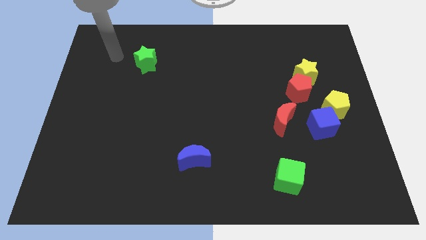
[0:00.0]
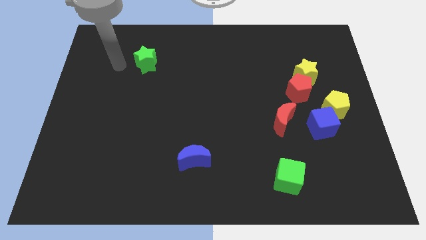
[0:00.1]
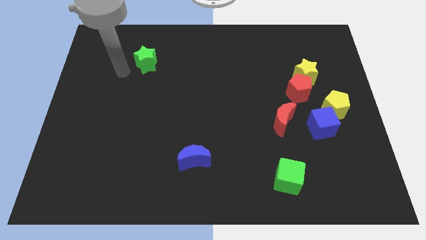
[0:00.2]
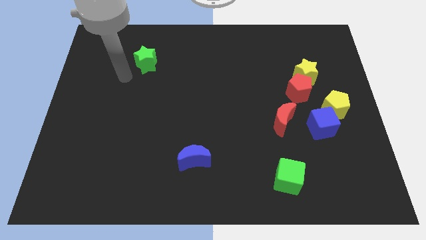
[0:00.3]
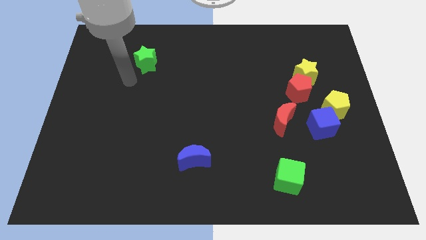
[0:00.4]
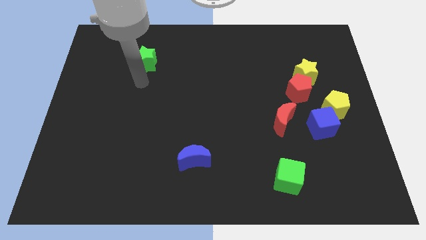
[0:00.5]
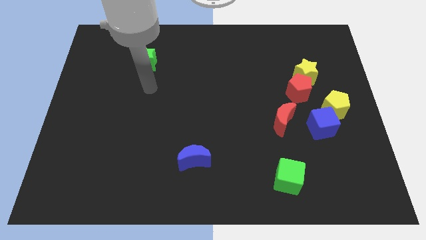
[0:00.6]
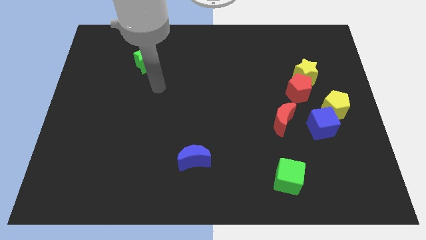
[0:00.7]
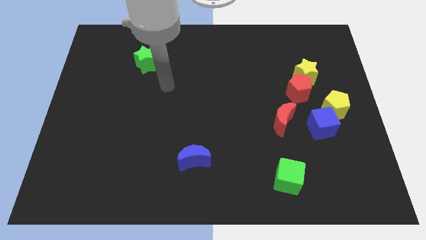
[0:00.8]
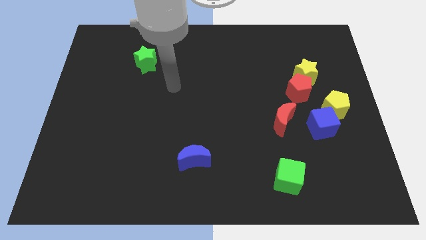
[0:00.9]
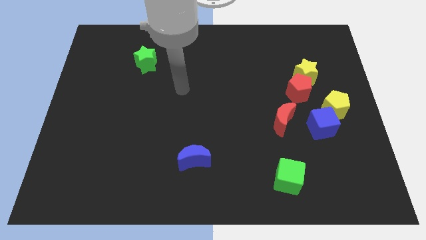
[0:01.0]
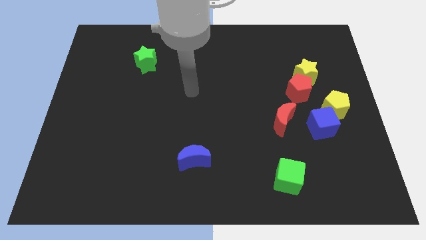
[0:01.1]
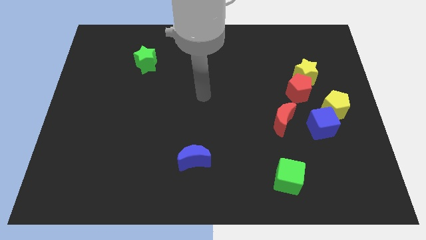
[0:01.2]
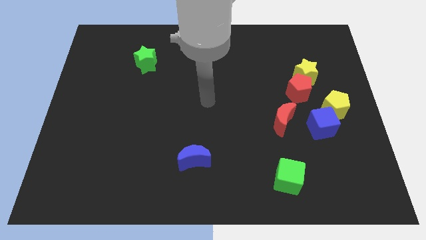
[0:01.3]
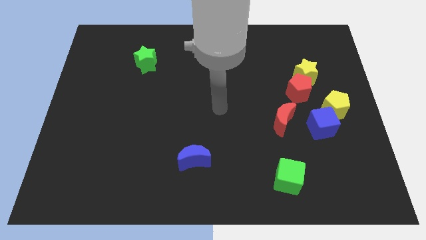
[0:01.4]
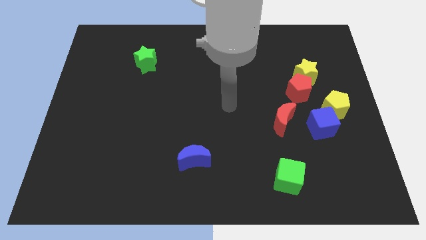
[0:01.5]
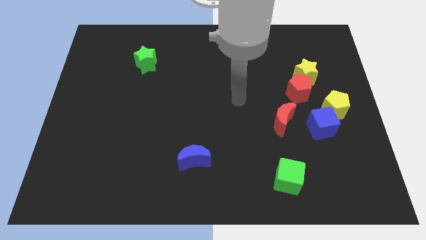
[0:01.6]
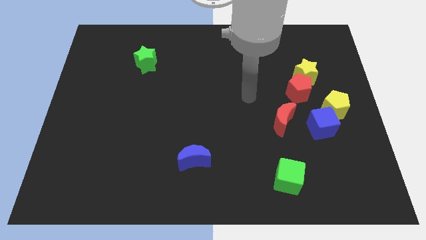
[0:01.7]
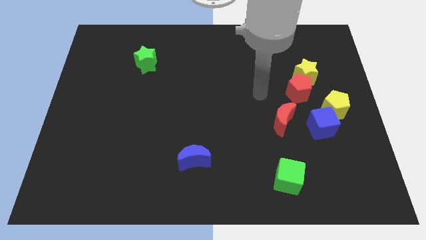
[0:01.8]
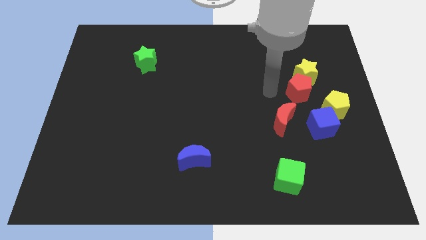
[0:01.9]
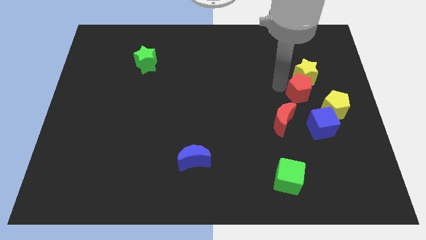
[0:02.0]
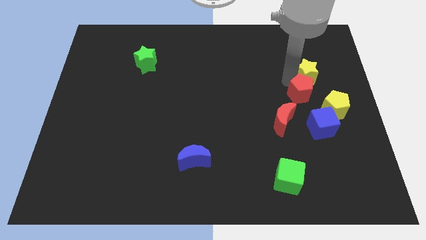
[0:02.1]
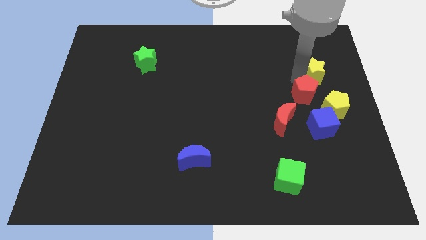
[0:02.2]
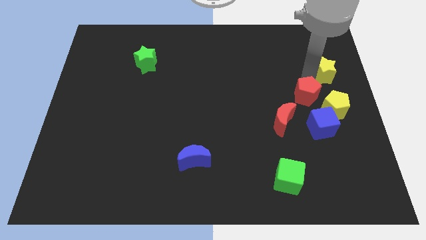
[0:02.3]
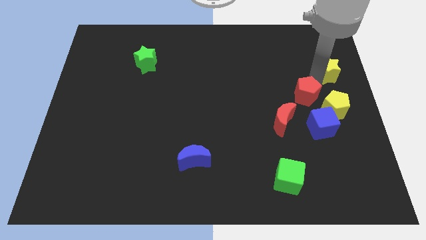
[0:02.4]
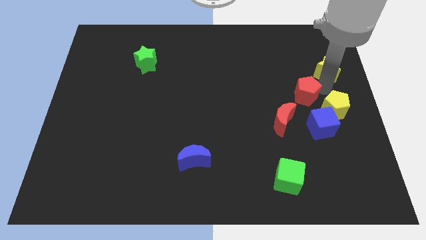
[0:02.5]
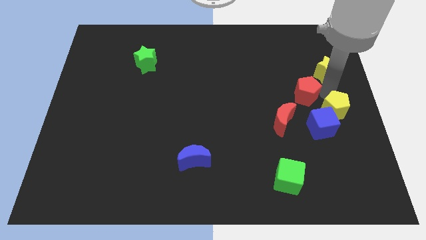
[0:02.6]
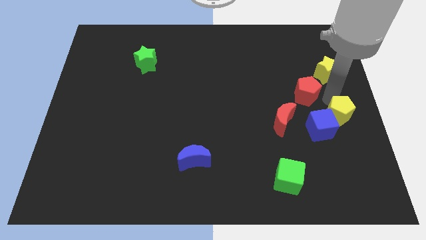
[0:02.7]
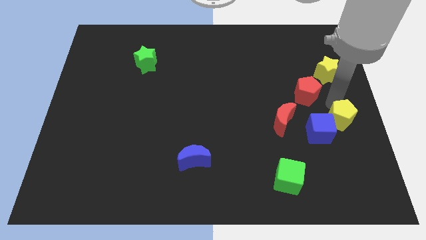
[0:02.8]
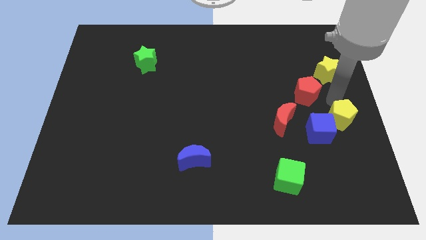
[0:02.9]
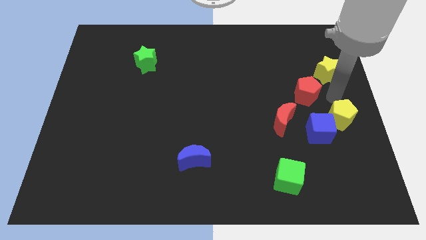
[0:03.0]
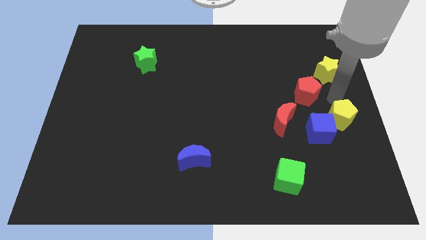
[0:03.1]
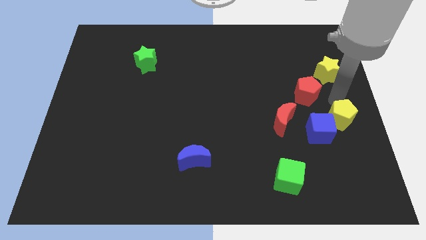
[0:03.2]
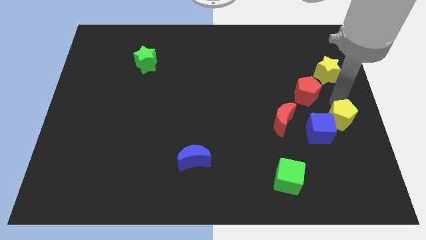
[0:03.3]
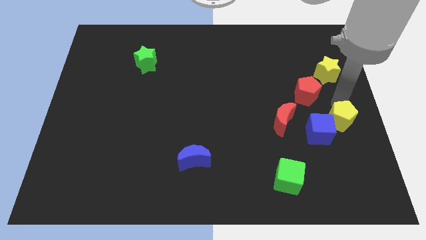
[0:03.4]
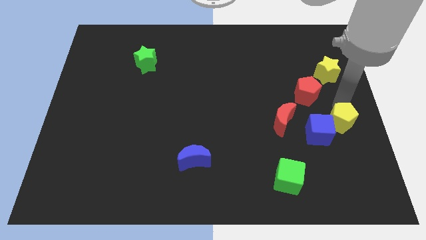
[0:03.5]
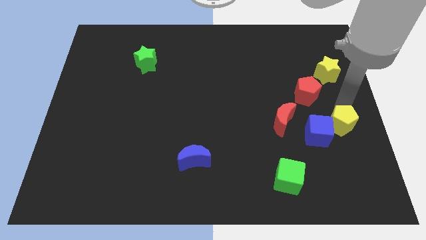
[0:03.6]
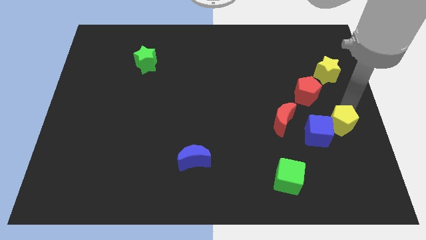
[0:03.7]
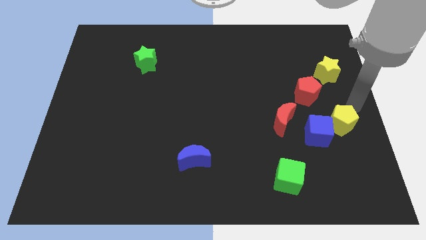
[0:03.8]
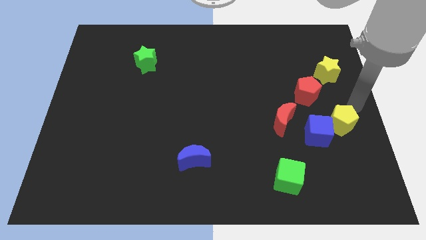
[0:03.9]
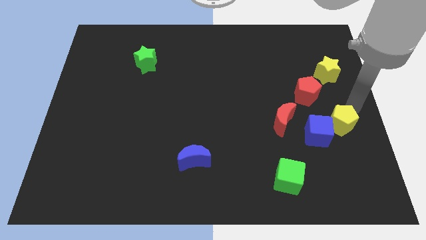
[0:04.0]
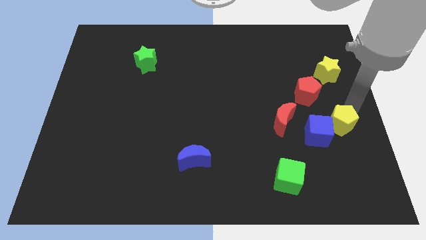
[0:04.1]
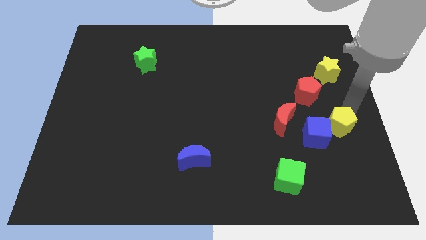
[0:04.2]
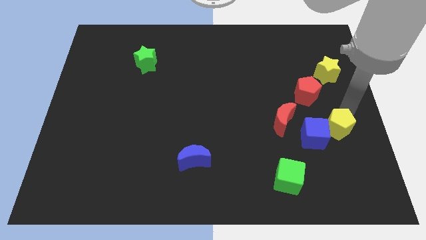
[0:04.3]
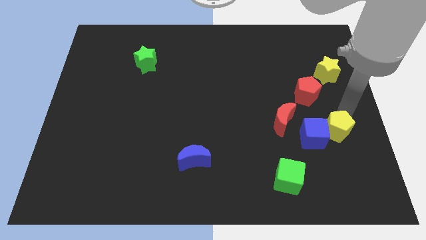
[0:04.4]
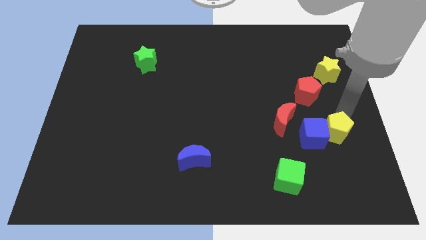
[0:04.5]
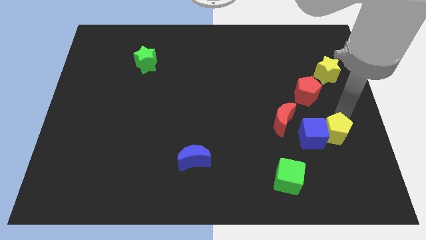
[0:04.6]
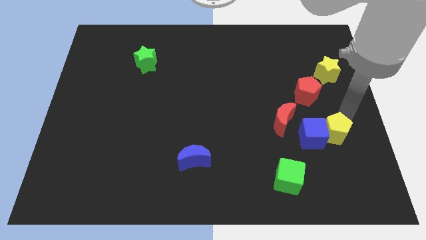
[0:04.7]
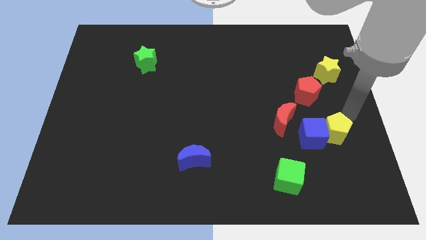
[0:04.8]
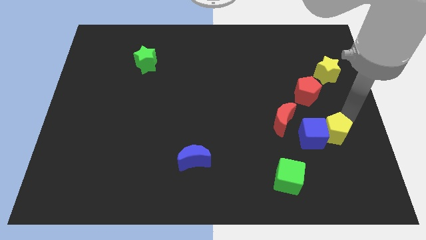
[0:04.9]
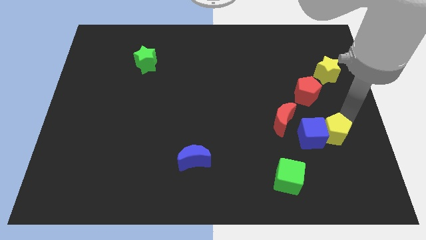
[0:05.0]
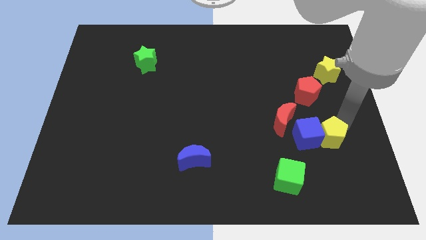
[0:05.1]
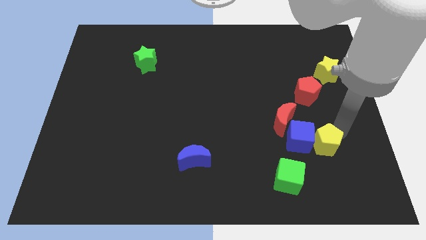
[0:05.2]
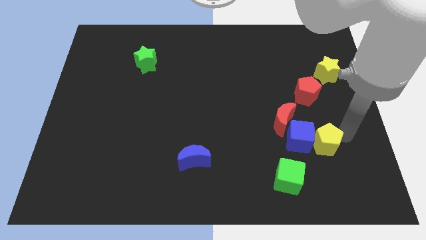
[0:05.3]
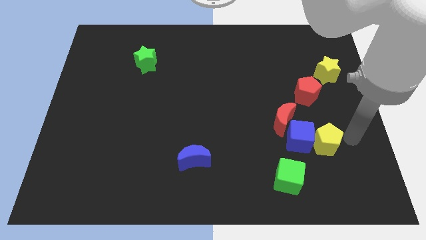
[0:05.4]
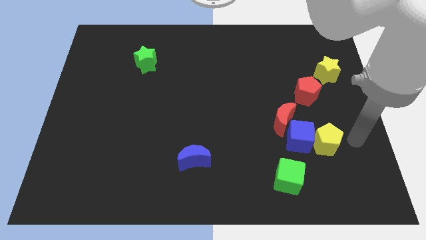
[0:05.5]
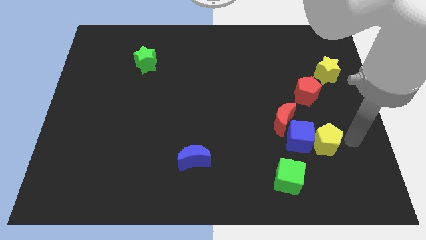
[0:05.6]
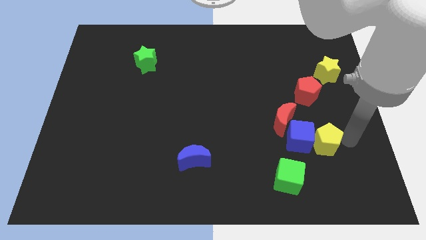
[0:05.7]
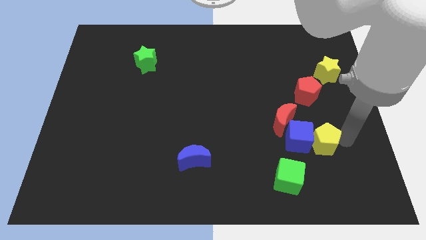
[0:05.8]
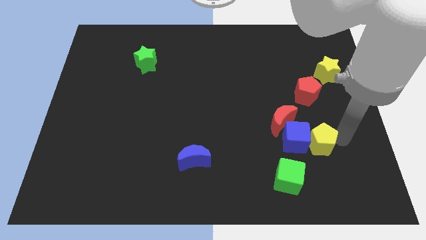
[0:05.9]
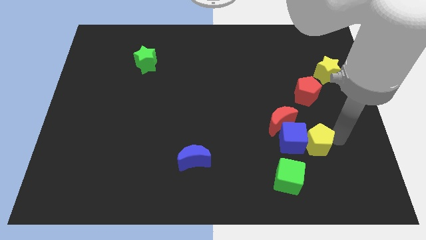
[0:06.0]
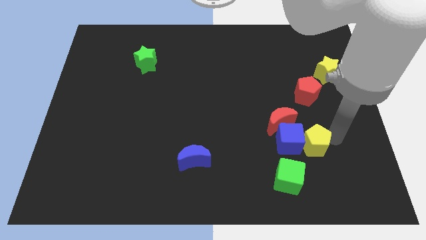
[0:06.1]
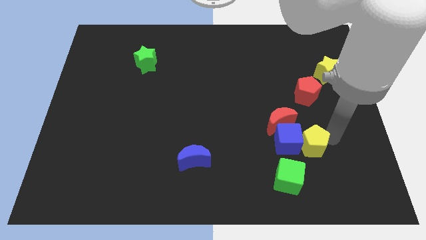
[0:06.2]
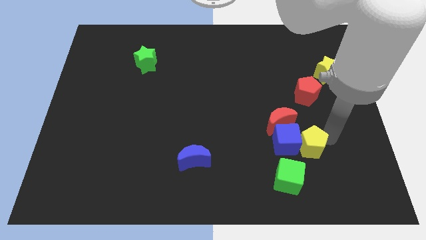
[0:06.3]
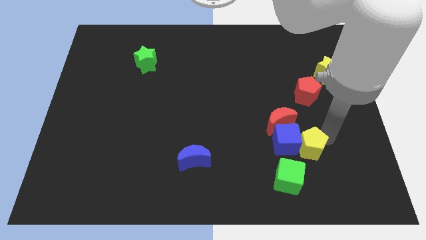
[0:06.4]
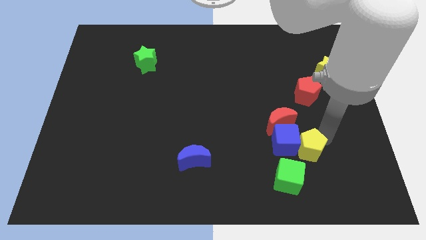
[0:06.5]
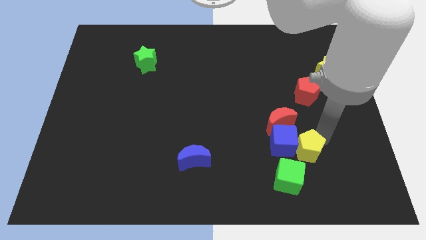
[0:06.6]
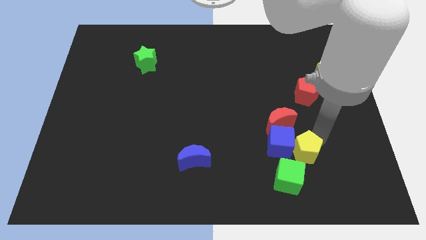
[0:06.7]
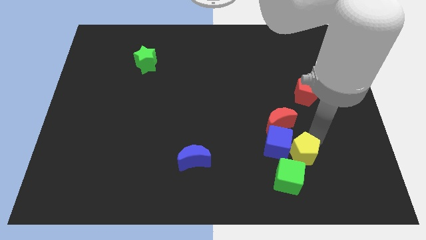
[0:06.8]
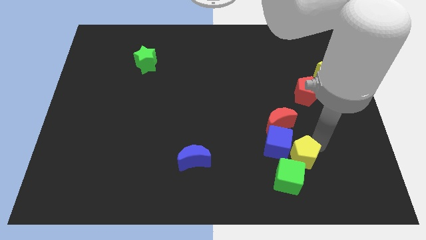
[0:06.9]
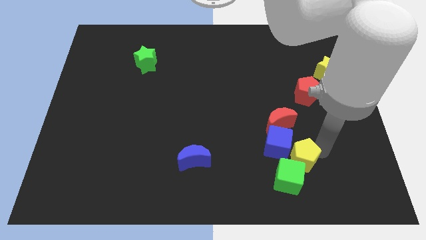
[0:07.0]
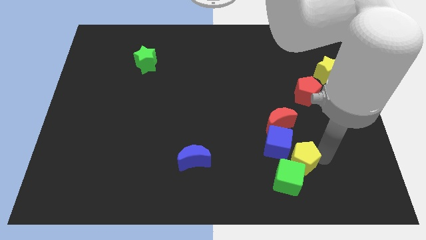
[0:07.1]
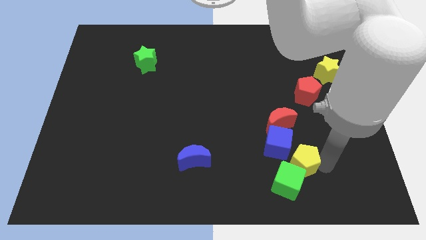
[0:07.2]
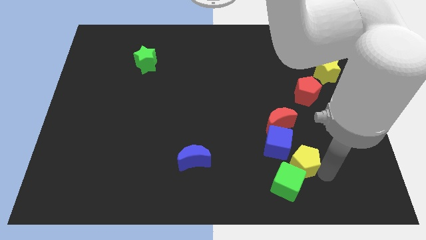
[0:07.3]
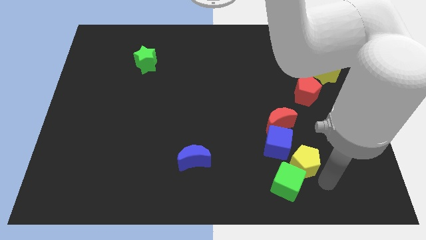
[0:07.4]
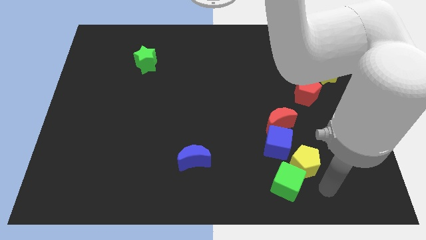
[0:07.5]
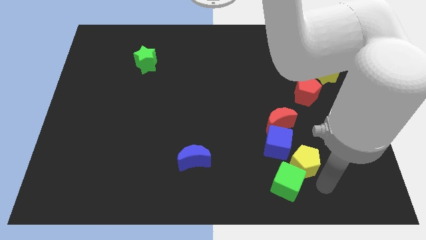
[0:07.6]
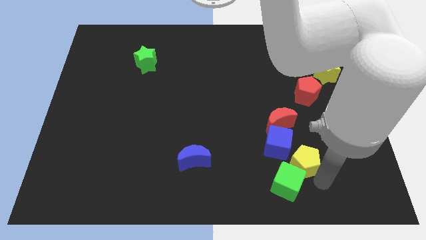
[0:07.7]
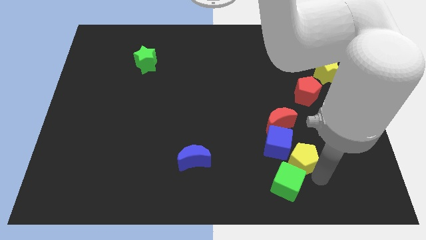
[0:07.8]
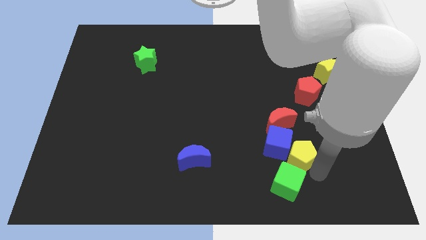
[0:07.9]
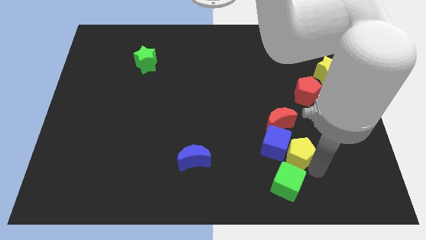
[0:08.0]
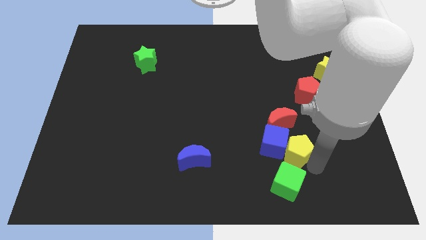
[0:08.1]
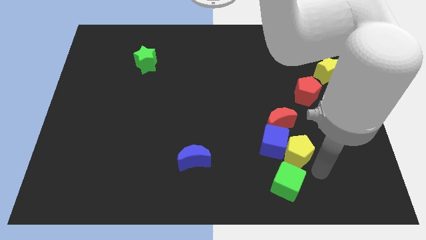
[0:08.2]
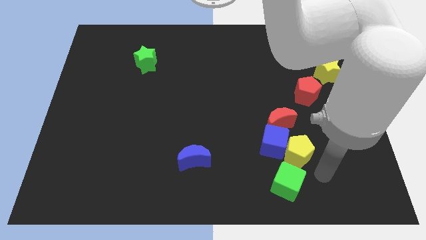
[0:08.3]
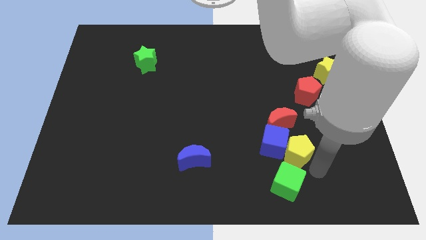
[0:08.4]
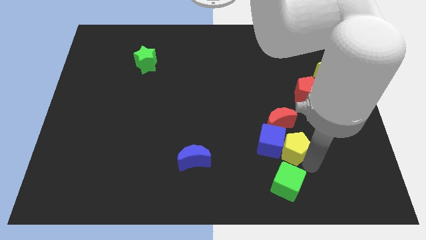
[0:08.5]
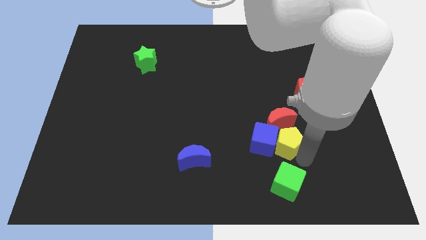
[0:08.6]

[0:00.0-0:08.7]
slide the yellow pentagon a little bit to the left
